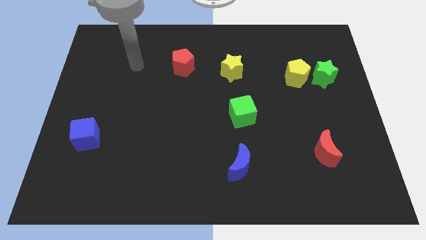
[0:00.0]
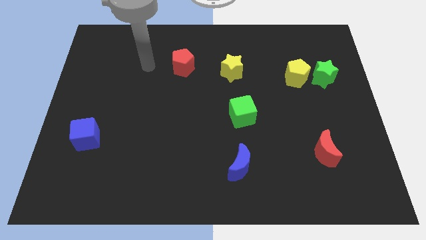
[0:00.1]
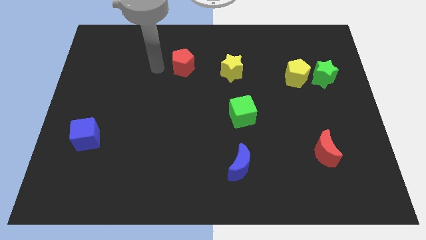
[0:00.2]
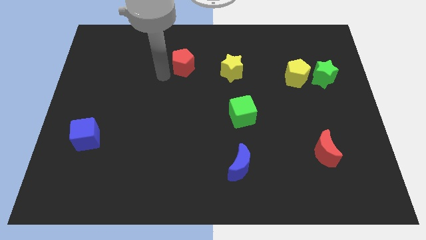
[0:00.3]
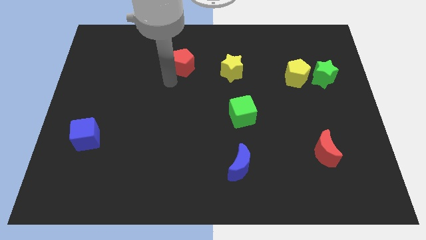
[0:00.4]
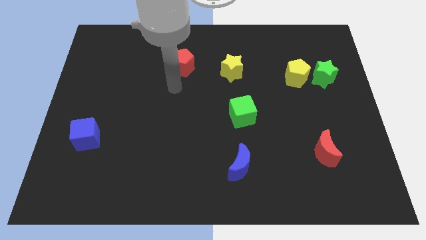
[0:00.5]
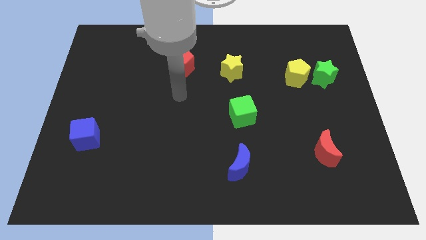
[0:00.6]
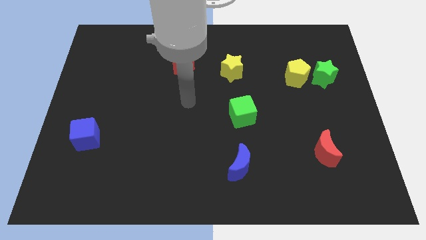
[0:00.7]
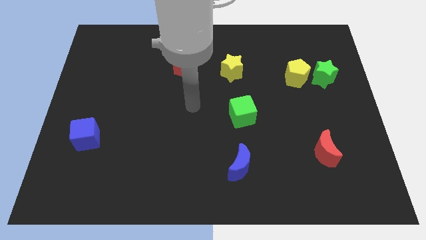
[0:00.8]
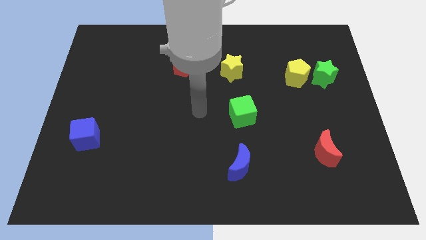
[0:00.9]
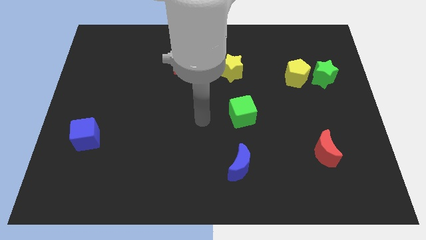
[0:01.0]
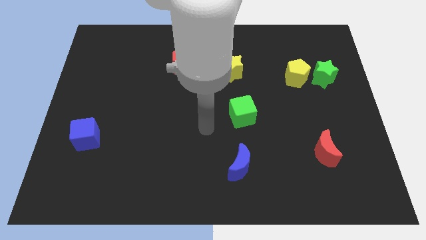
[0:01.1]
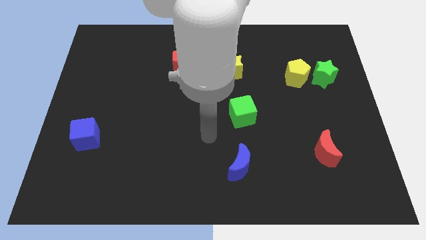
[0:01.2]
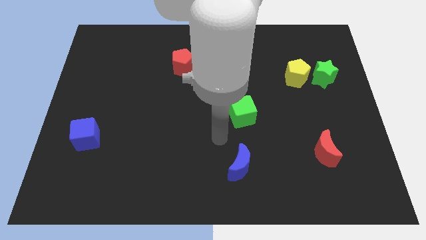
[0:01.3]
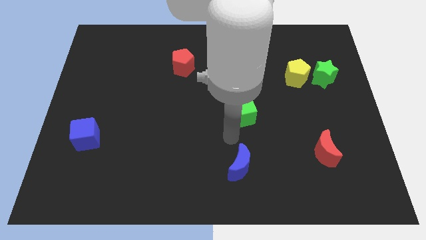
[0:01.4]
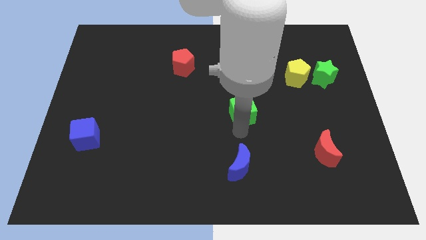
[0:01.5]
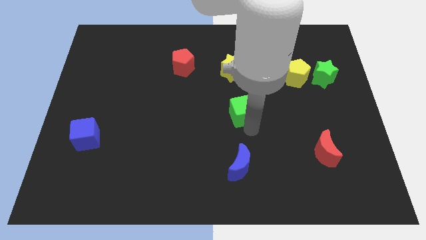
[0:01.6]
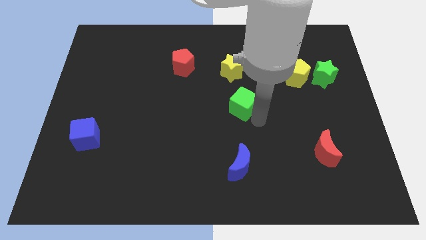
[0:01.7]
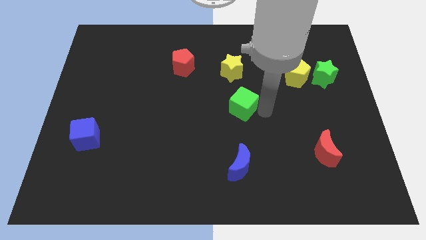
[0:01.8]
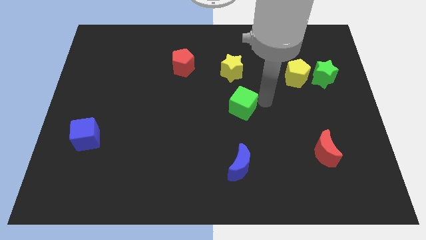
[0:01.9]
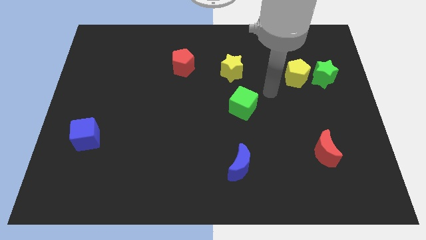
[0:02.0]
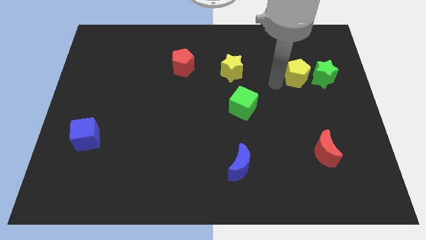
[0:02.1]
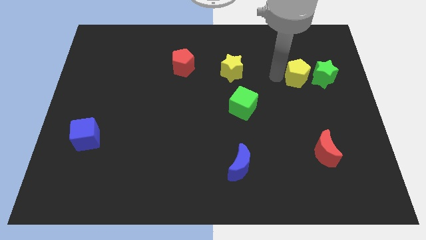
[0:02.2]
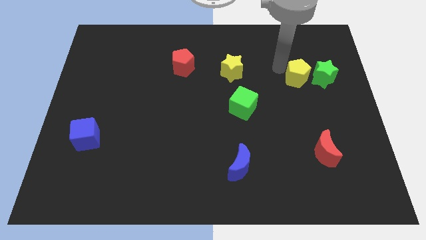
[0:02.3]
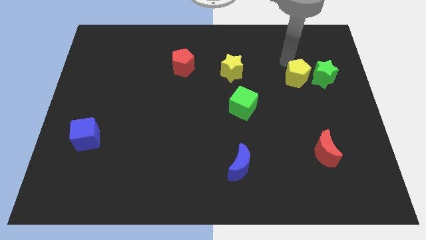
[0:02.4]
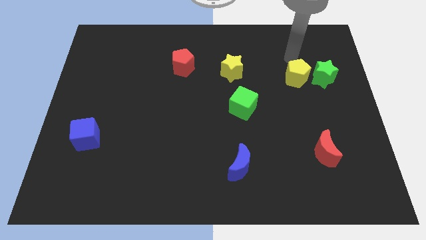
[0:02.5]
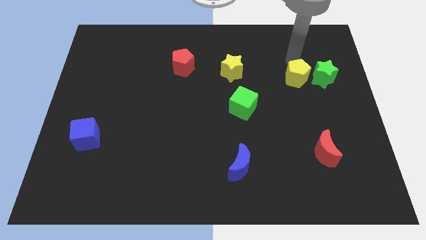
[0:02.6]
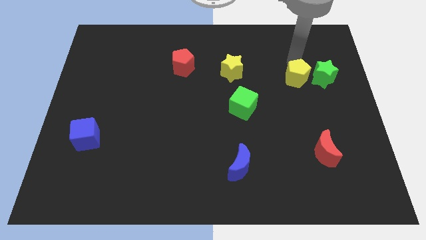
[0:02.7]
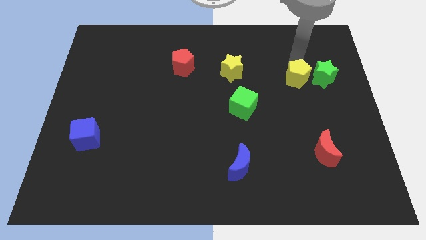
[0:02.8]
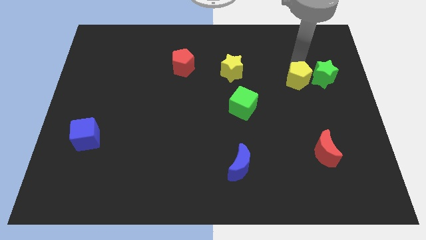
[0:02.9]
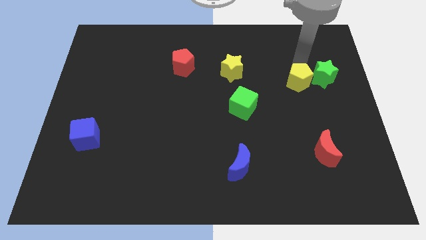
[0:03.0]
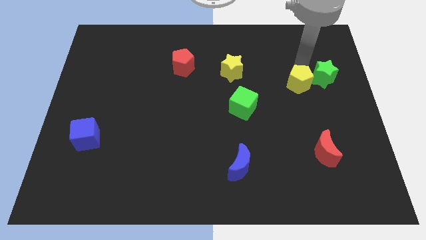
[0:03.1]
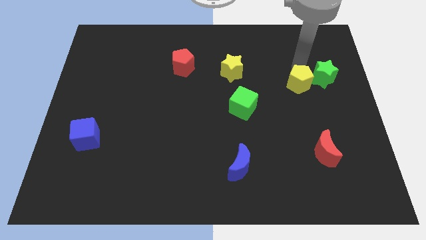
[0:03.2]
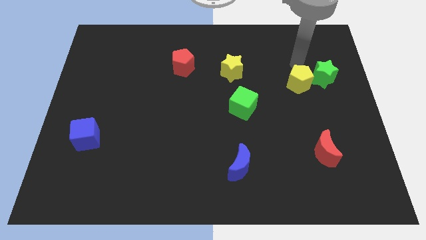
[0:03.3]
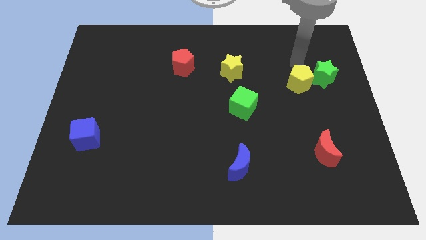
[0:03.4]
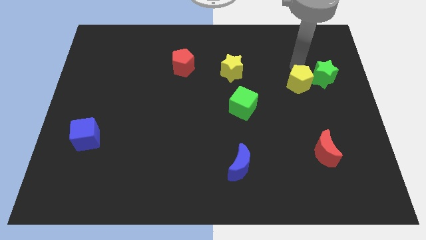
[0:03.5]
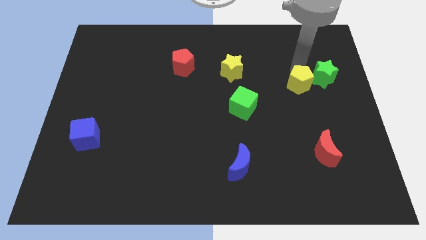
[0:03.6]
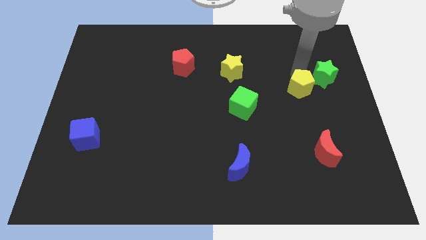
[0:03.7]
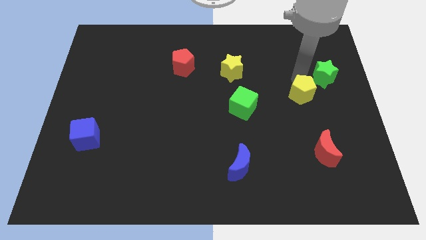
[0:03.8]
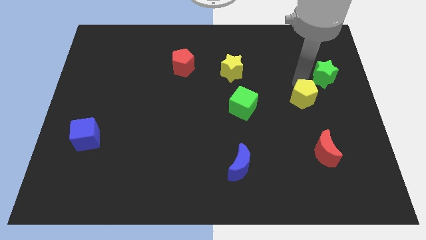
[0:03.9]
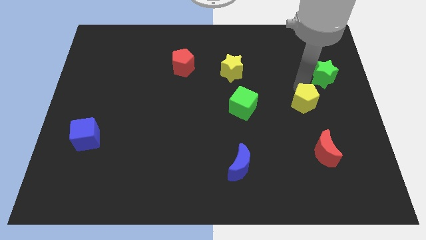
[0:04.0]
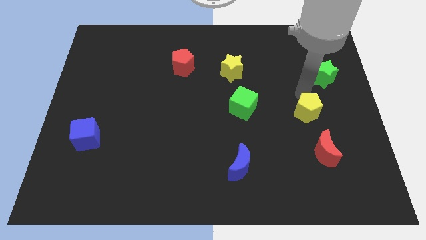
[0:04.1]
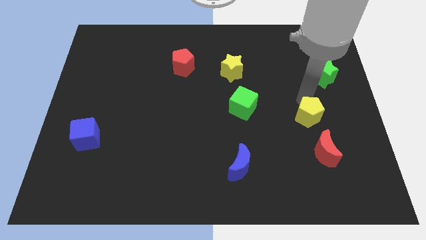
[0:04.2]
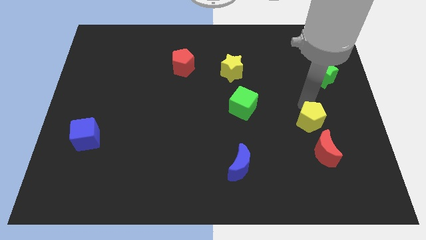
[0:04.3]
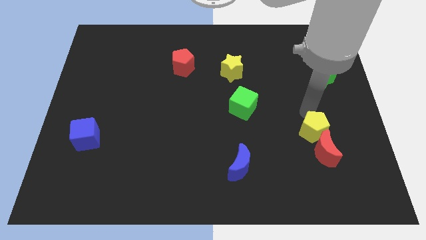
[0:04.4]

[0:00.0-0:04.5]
slide the yellow pentagon to the red moon

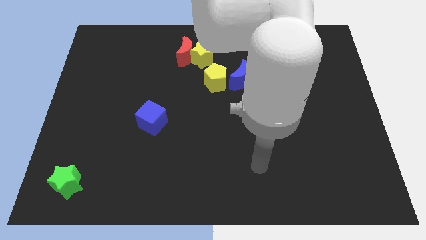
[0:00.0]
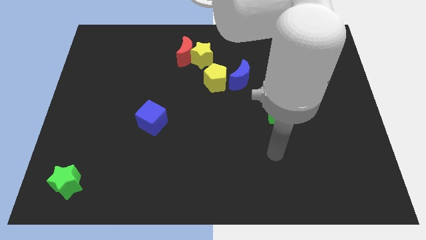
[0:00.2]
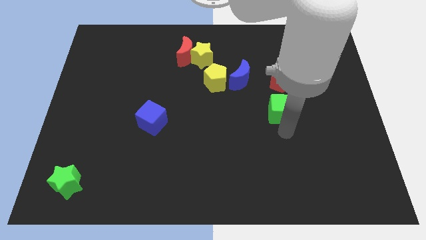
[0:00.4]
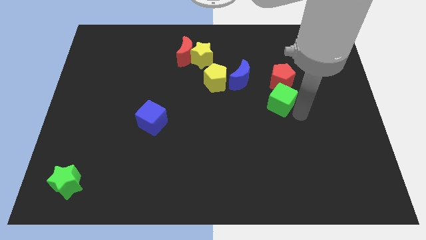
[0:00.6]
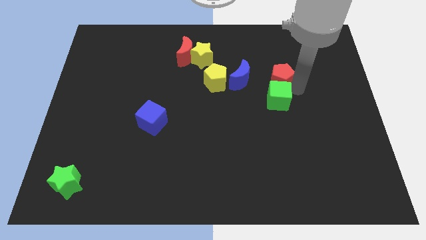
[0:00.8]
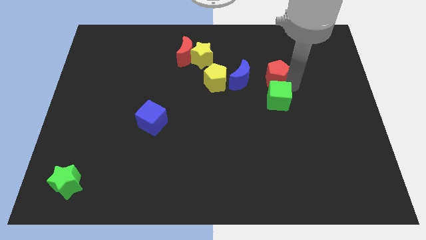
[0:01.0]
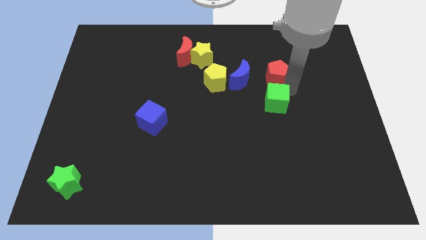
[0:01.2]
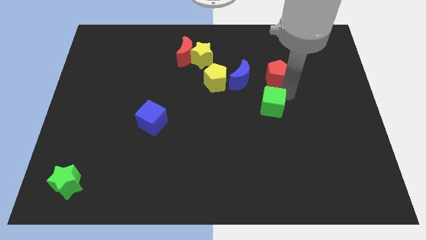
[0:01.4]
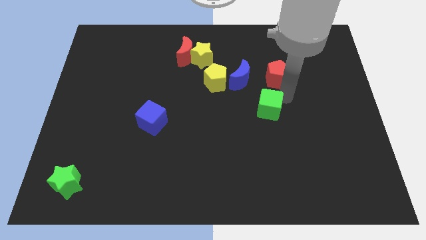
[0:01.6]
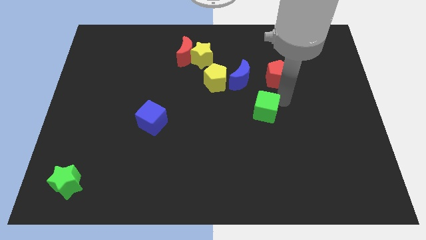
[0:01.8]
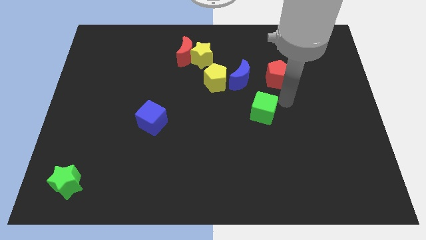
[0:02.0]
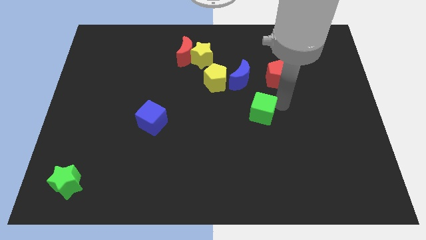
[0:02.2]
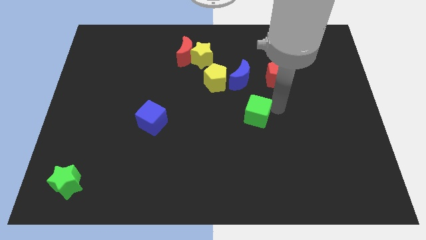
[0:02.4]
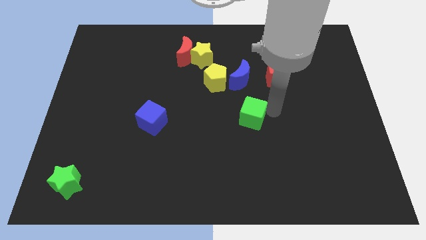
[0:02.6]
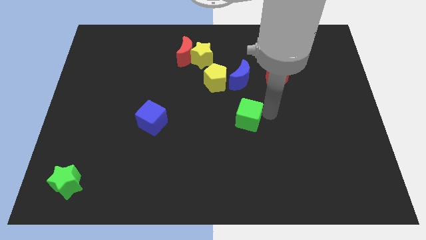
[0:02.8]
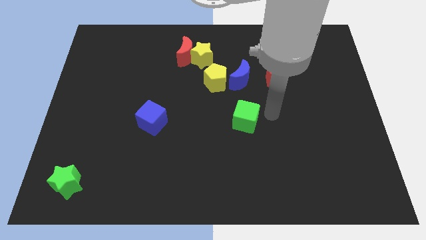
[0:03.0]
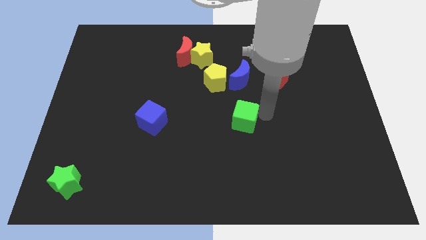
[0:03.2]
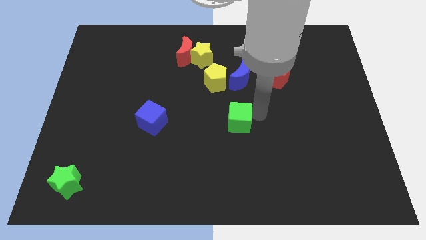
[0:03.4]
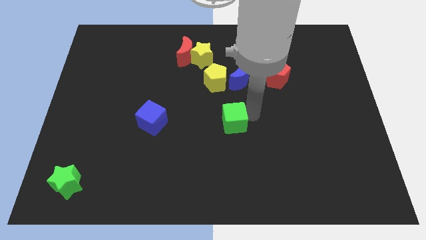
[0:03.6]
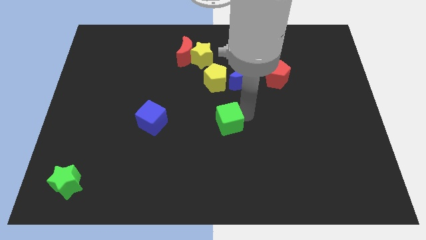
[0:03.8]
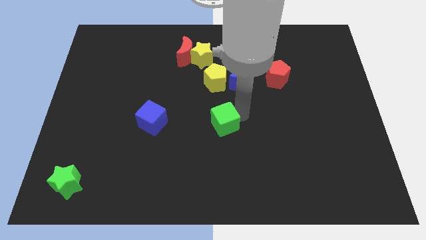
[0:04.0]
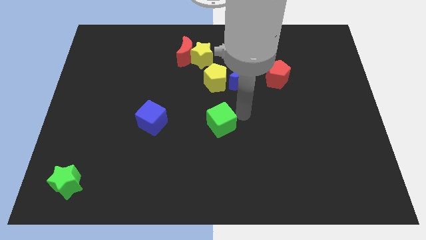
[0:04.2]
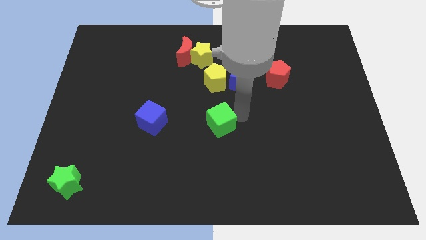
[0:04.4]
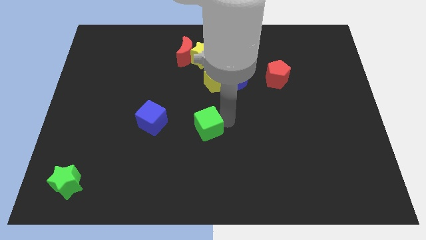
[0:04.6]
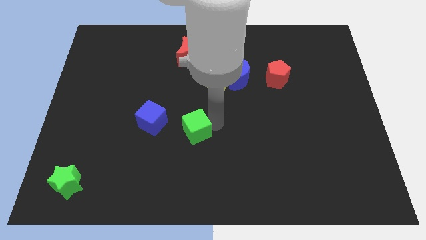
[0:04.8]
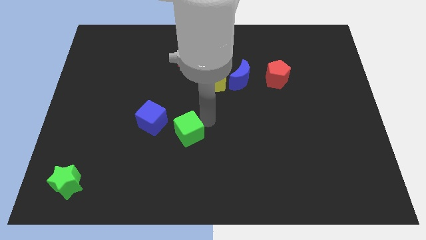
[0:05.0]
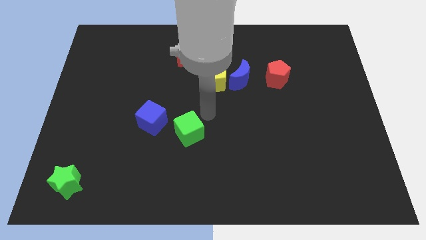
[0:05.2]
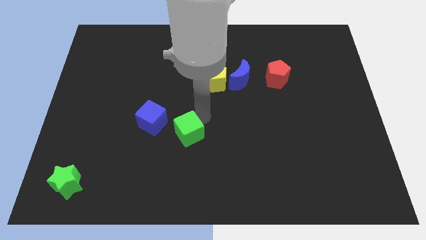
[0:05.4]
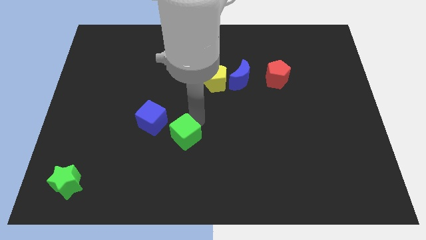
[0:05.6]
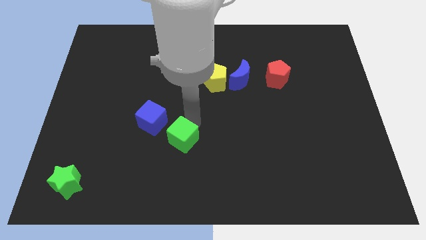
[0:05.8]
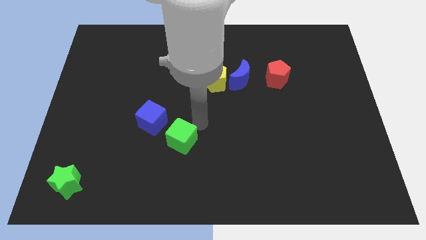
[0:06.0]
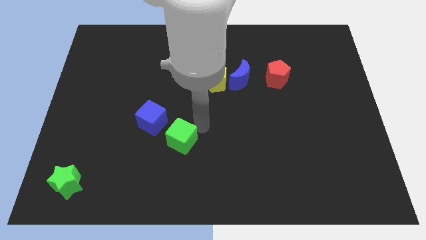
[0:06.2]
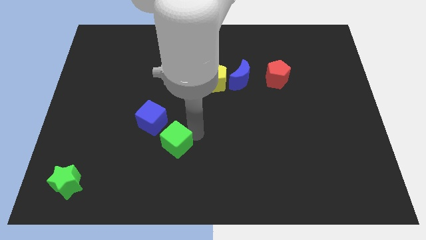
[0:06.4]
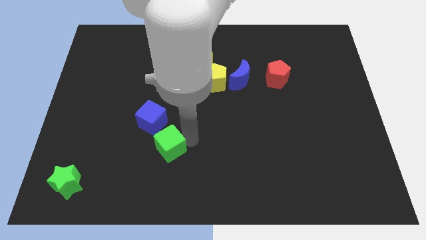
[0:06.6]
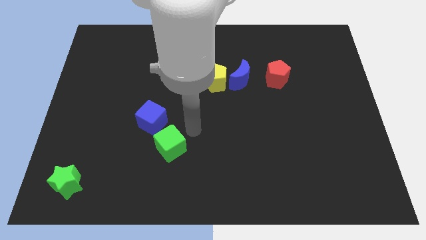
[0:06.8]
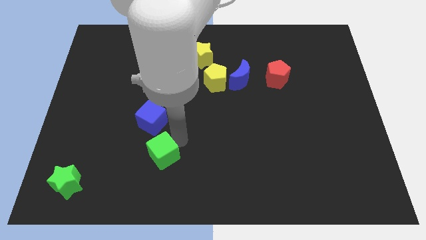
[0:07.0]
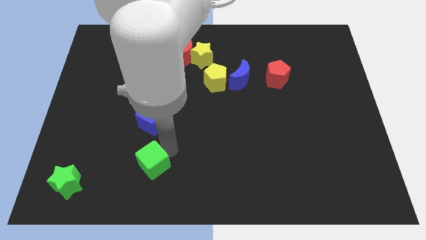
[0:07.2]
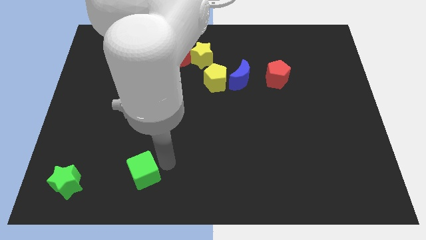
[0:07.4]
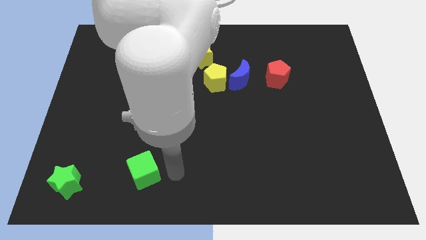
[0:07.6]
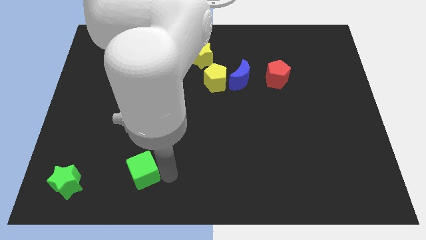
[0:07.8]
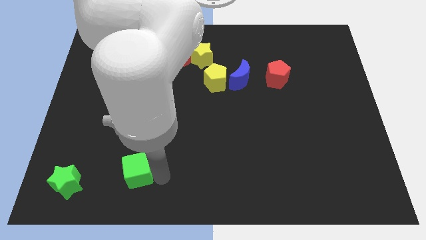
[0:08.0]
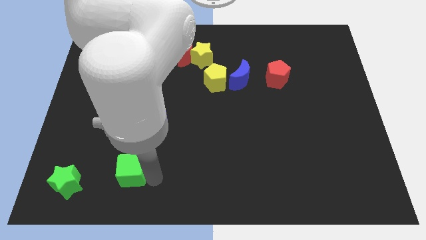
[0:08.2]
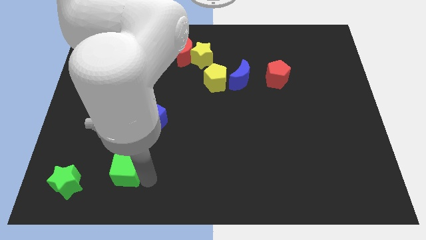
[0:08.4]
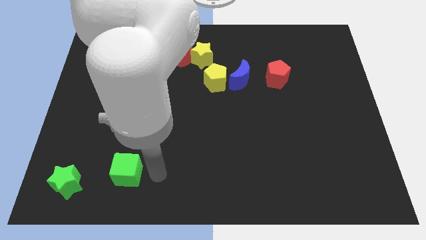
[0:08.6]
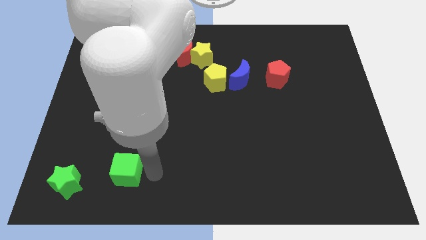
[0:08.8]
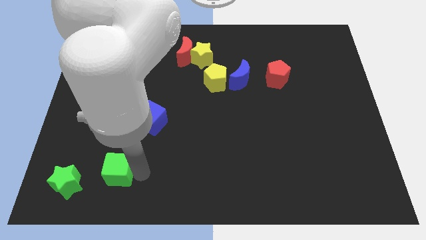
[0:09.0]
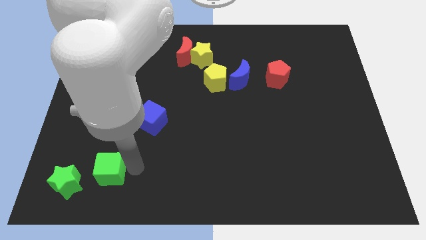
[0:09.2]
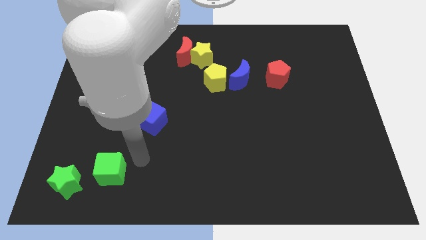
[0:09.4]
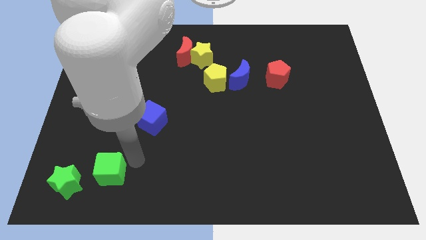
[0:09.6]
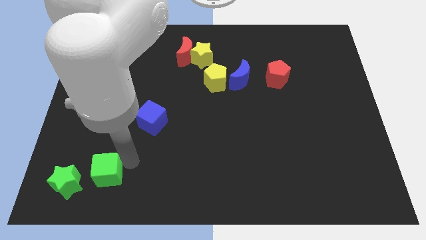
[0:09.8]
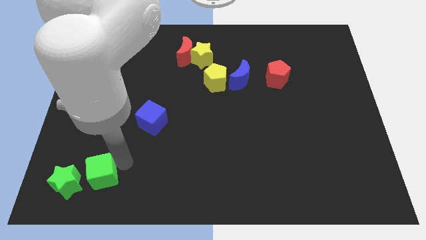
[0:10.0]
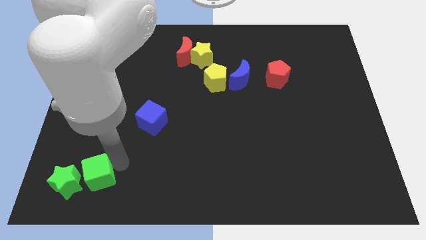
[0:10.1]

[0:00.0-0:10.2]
put the green cube close to the green star
